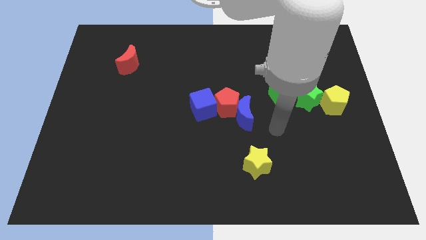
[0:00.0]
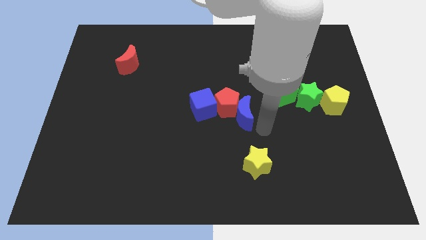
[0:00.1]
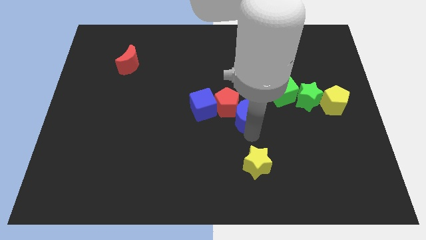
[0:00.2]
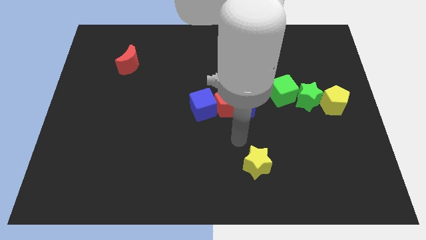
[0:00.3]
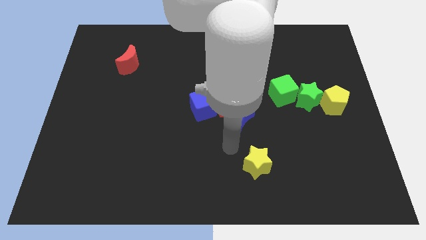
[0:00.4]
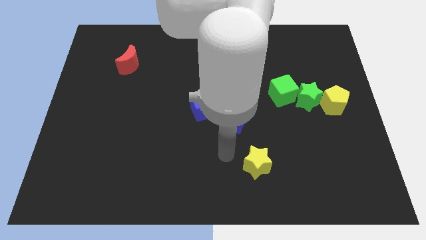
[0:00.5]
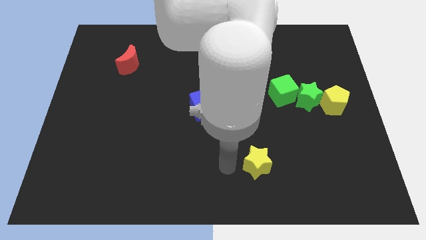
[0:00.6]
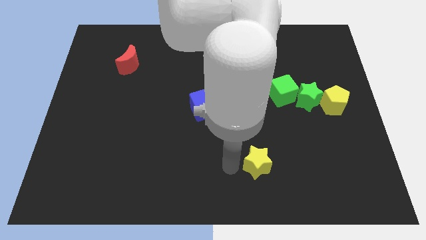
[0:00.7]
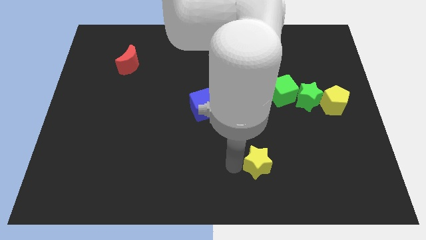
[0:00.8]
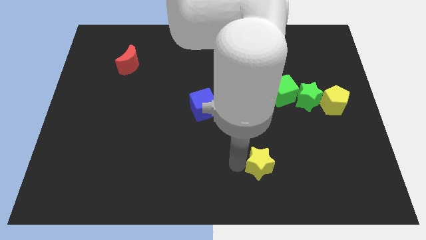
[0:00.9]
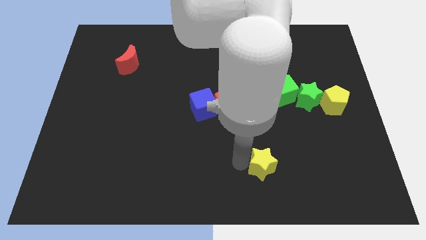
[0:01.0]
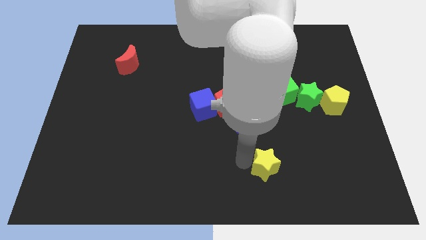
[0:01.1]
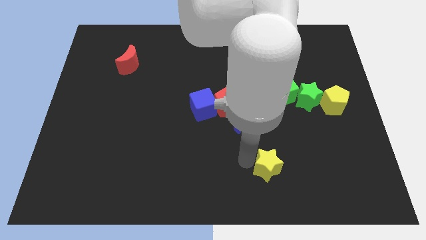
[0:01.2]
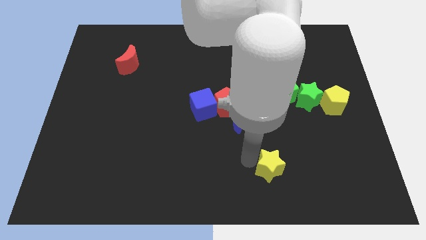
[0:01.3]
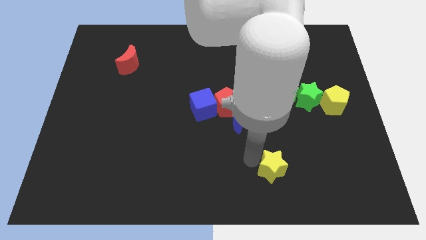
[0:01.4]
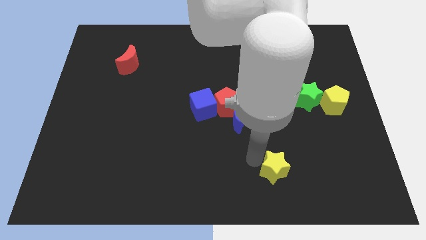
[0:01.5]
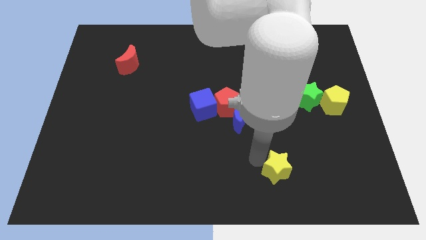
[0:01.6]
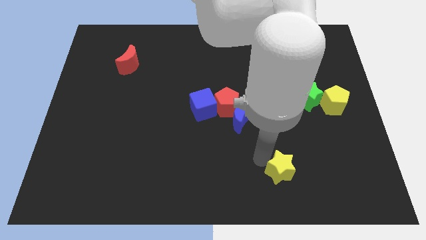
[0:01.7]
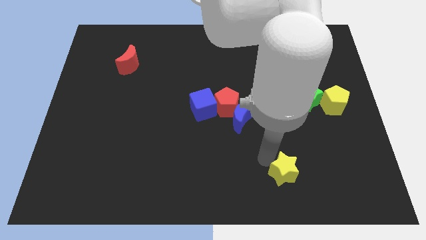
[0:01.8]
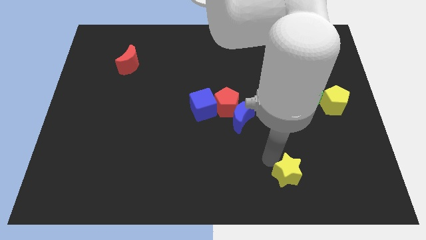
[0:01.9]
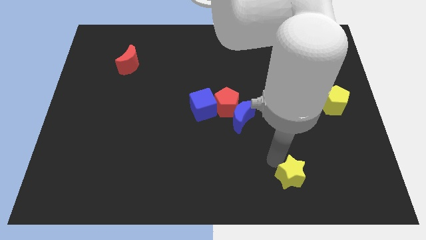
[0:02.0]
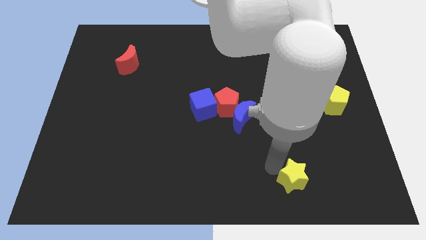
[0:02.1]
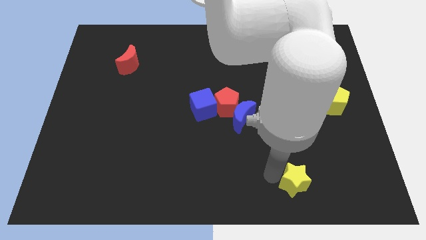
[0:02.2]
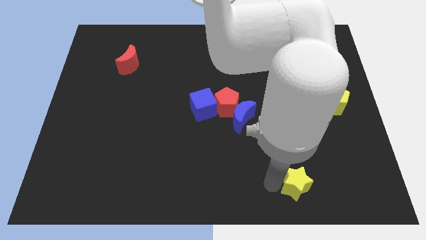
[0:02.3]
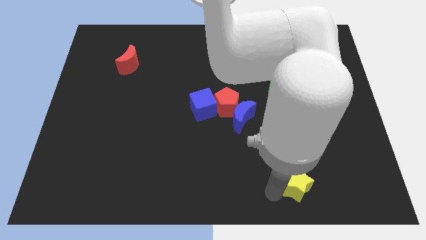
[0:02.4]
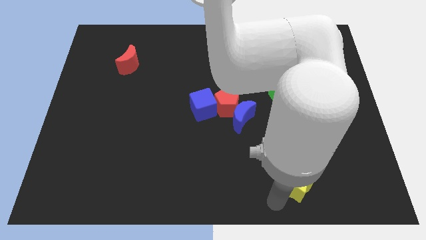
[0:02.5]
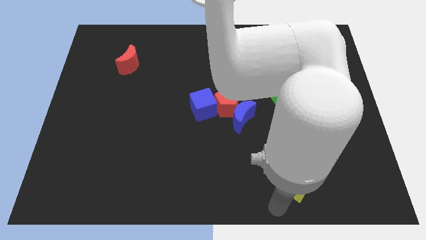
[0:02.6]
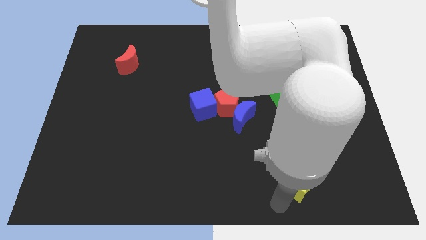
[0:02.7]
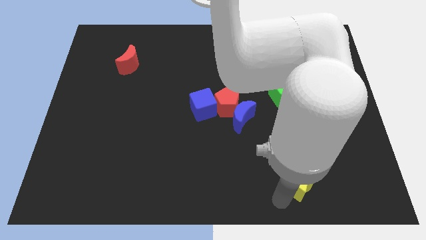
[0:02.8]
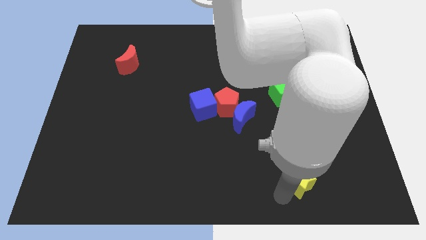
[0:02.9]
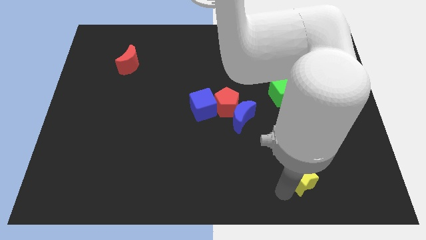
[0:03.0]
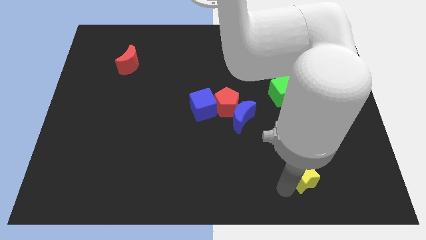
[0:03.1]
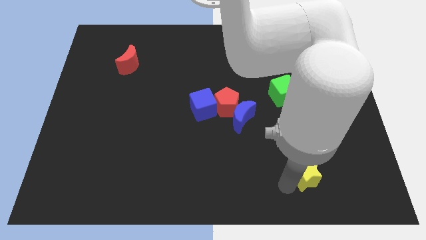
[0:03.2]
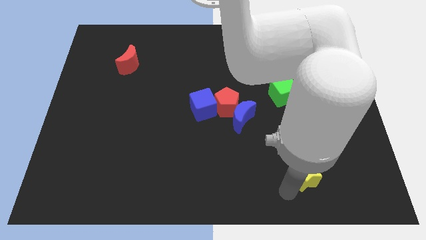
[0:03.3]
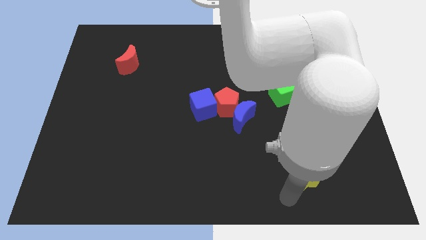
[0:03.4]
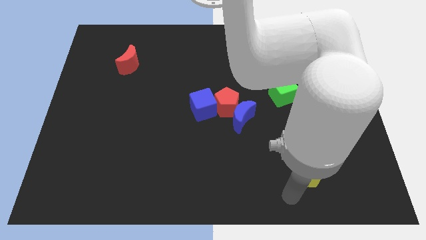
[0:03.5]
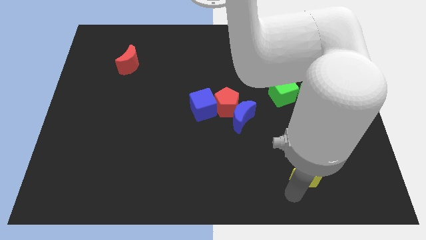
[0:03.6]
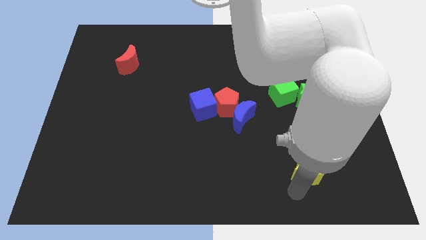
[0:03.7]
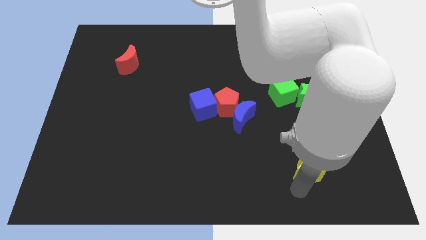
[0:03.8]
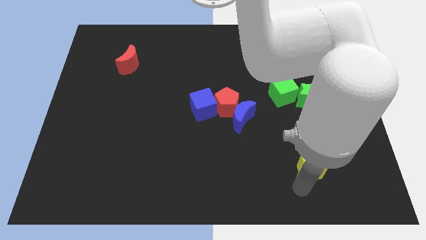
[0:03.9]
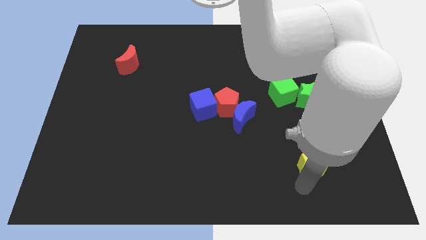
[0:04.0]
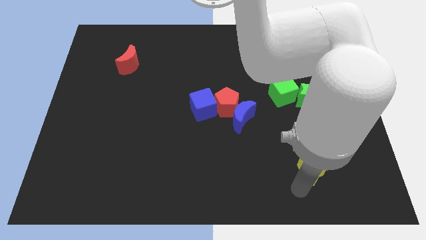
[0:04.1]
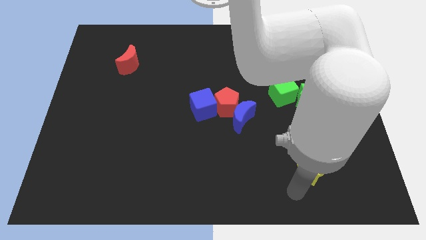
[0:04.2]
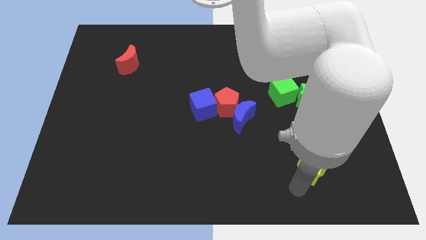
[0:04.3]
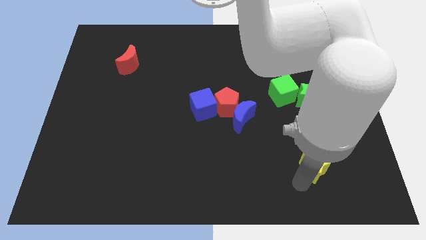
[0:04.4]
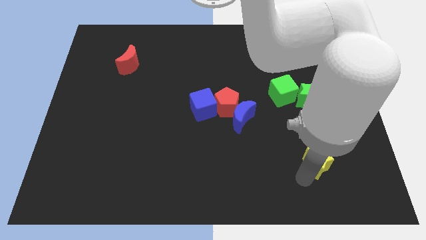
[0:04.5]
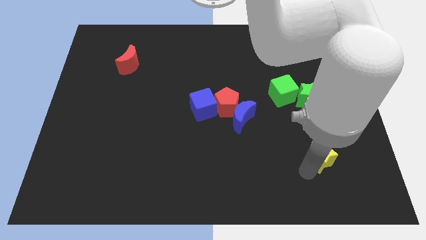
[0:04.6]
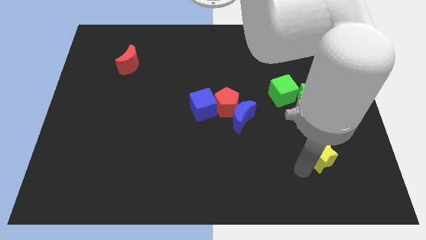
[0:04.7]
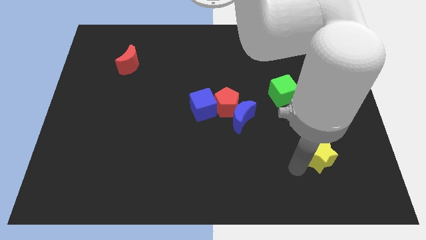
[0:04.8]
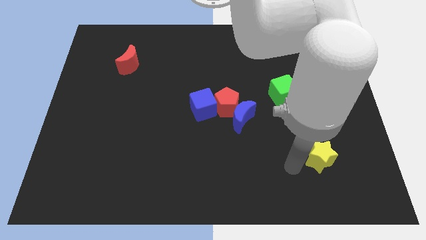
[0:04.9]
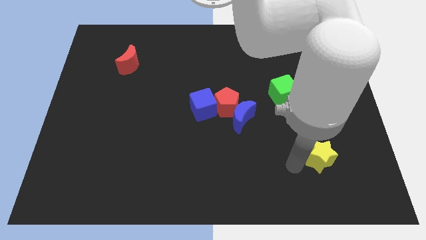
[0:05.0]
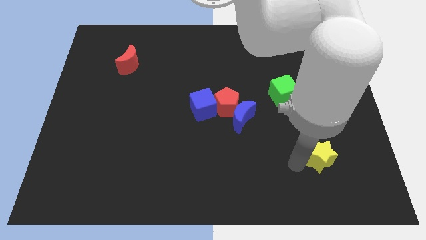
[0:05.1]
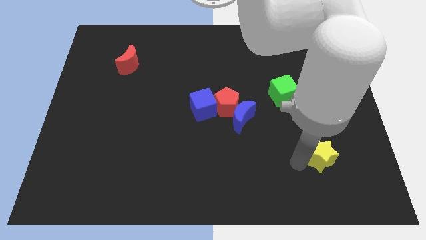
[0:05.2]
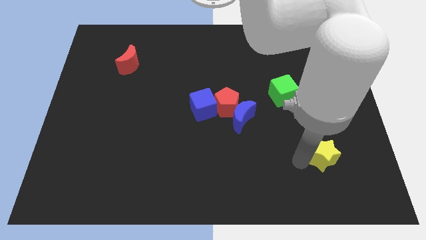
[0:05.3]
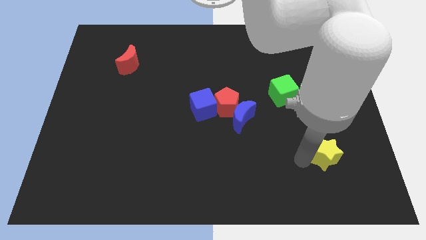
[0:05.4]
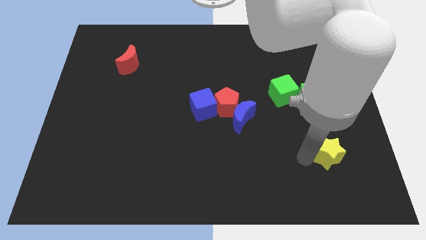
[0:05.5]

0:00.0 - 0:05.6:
move the yellow star below the yellow pentagon

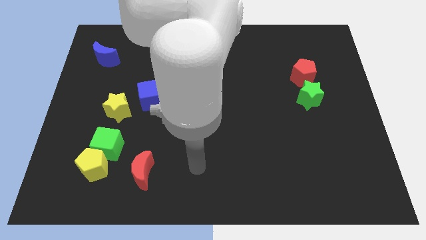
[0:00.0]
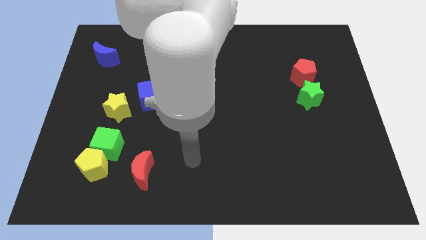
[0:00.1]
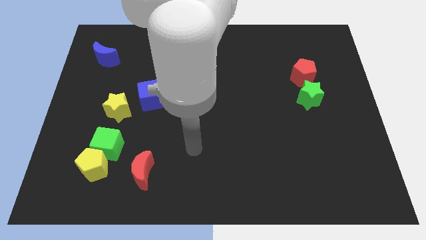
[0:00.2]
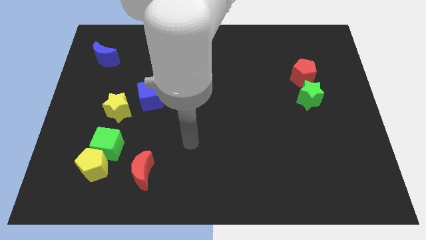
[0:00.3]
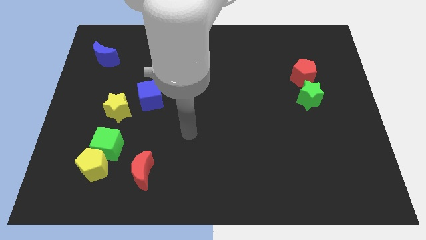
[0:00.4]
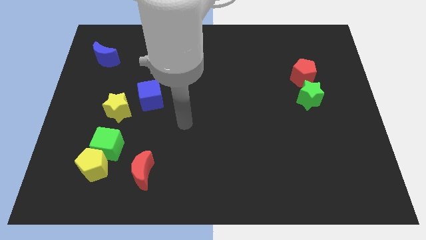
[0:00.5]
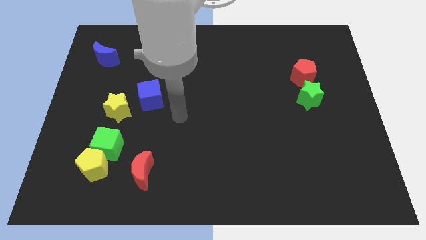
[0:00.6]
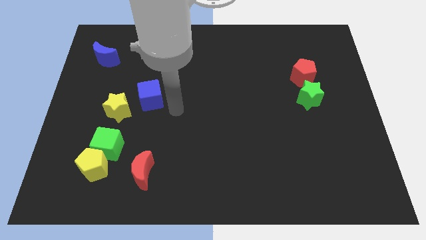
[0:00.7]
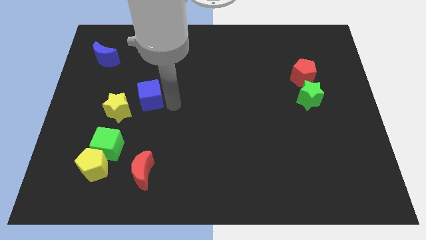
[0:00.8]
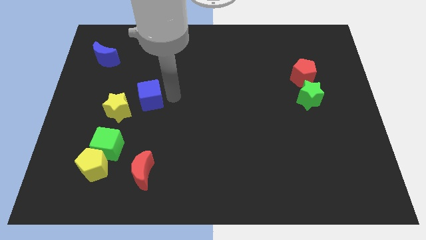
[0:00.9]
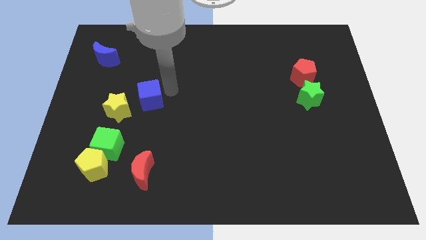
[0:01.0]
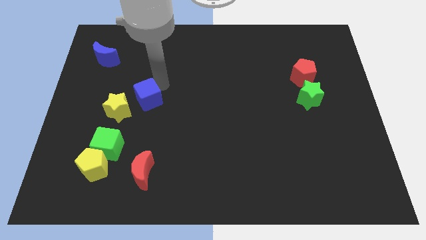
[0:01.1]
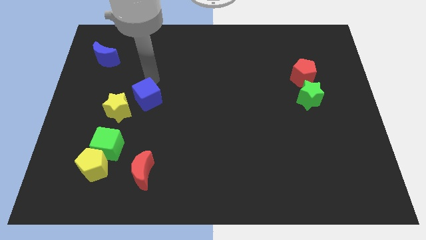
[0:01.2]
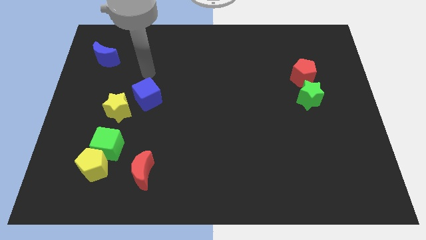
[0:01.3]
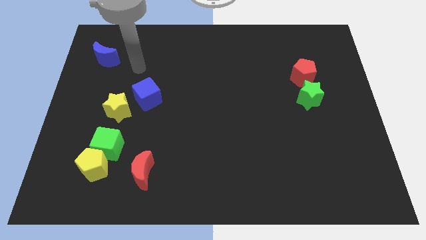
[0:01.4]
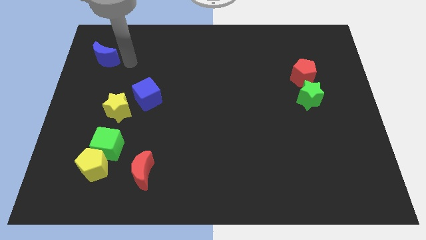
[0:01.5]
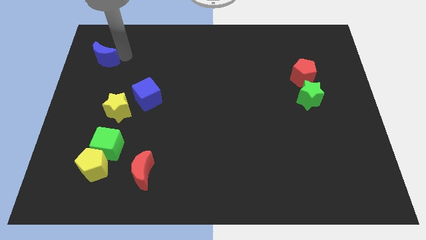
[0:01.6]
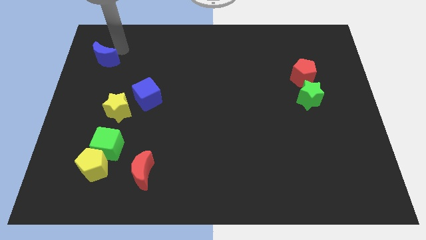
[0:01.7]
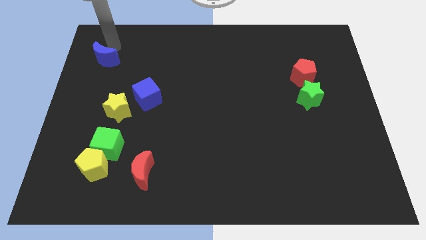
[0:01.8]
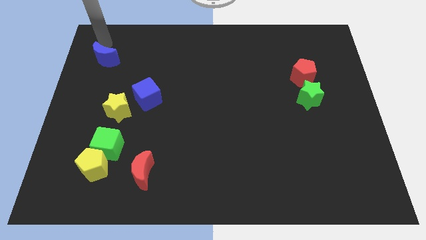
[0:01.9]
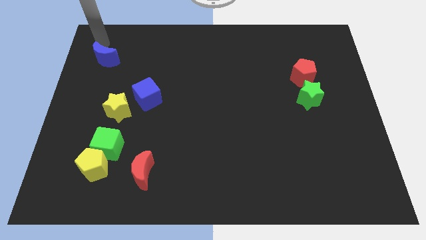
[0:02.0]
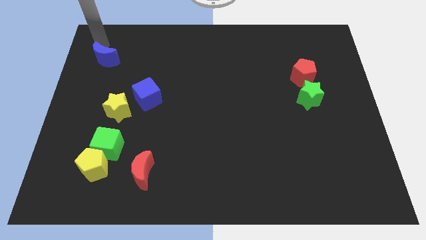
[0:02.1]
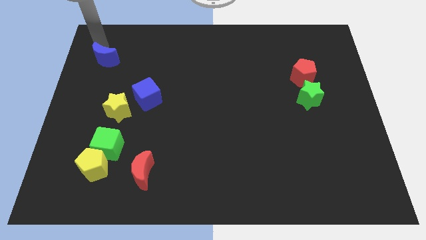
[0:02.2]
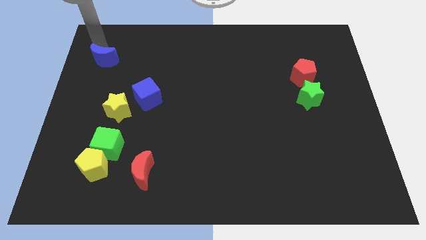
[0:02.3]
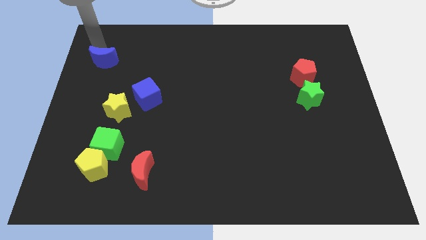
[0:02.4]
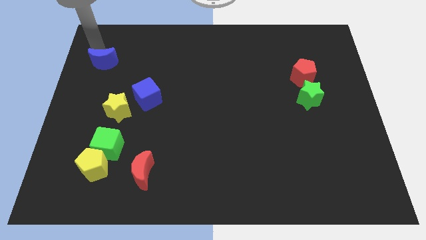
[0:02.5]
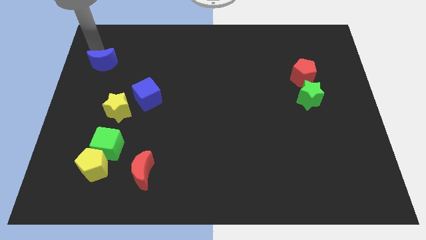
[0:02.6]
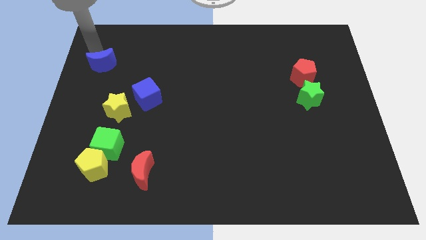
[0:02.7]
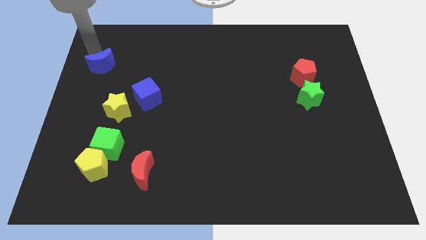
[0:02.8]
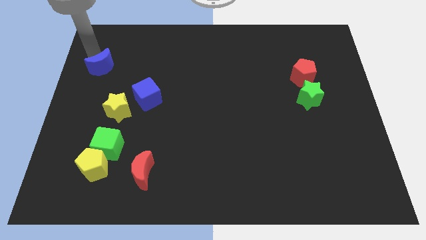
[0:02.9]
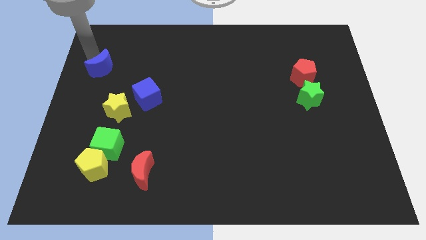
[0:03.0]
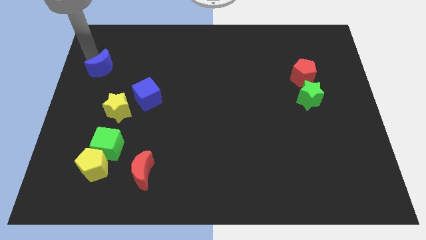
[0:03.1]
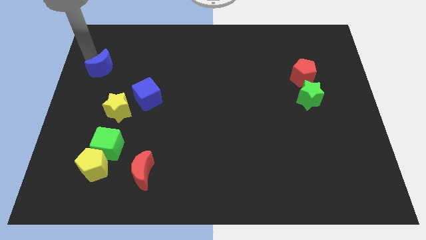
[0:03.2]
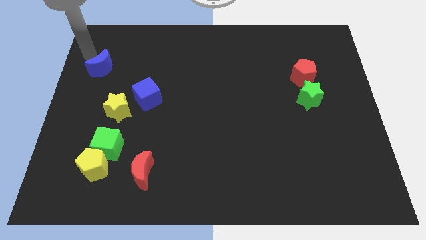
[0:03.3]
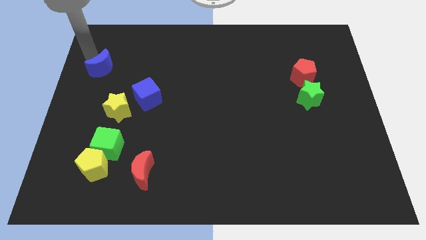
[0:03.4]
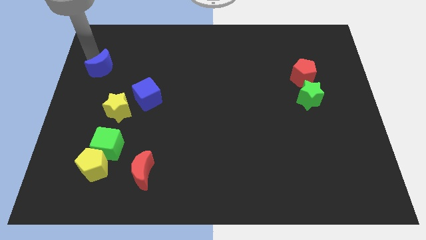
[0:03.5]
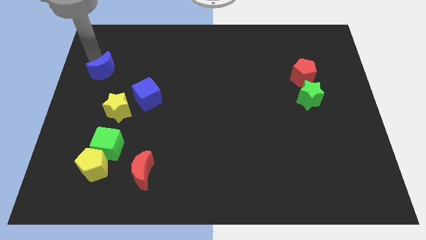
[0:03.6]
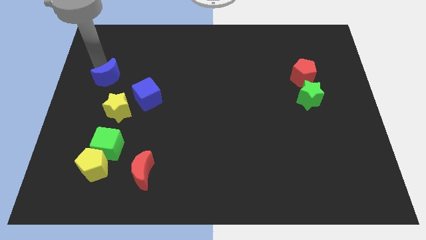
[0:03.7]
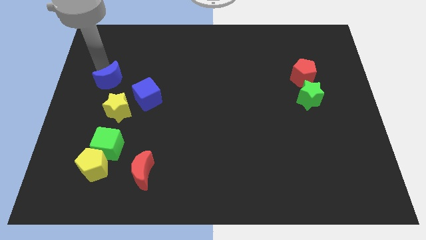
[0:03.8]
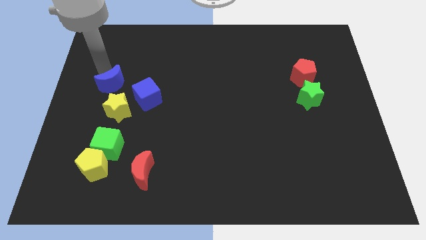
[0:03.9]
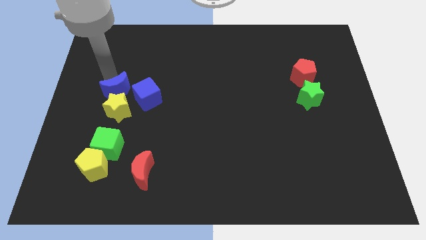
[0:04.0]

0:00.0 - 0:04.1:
put the blue moon to the top side of the green cube
